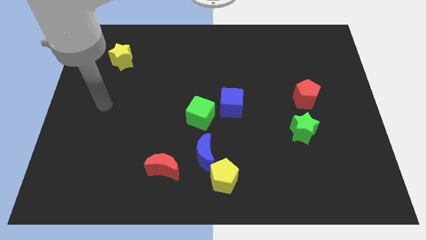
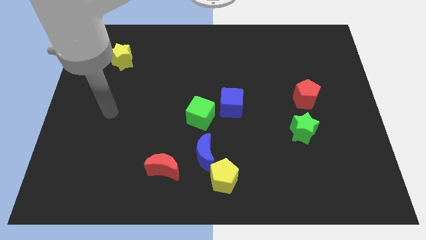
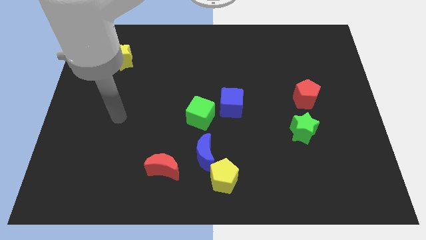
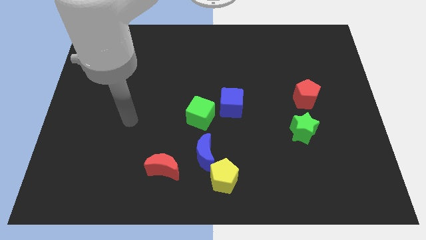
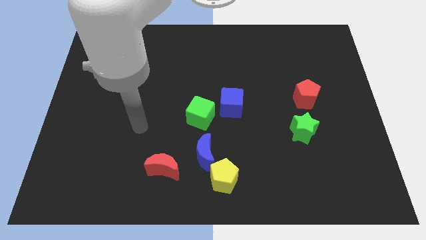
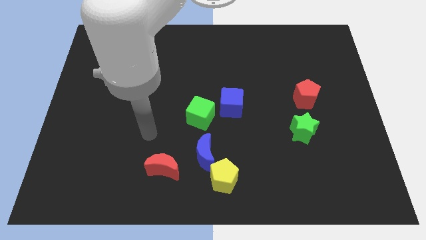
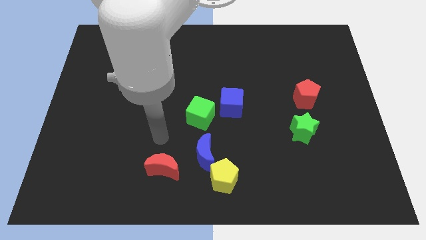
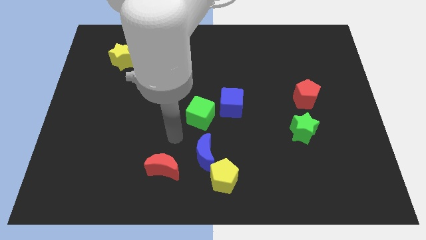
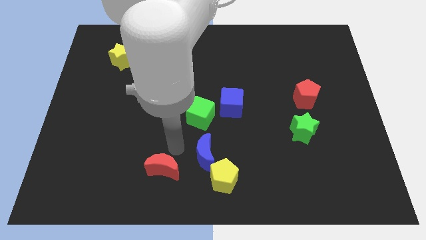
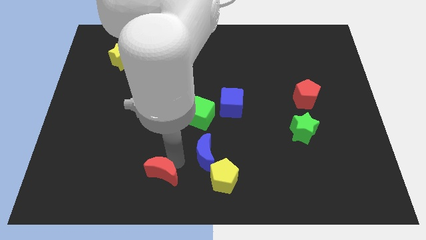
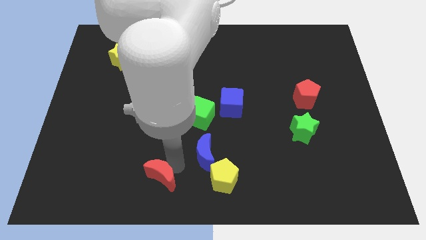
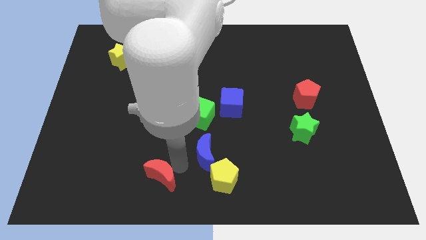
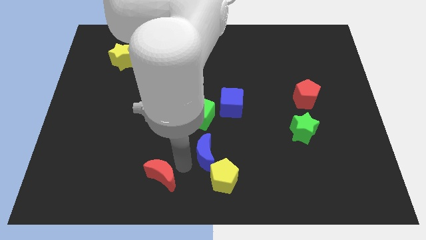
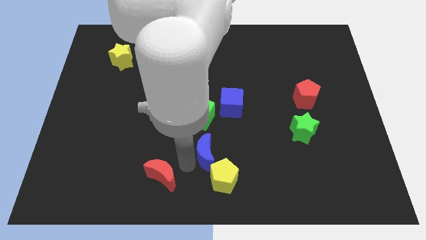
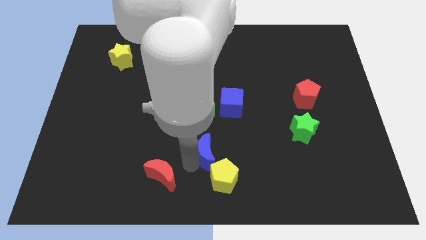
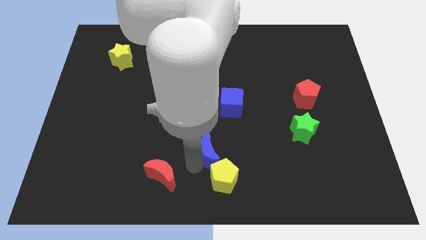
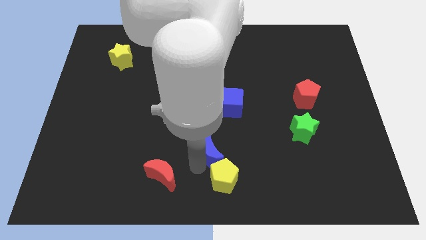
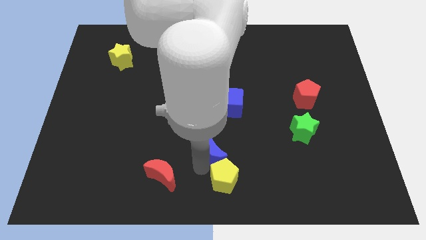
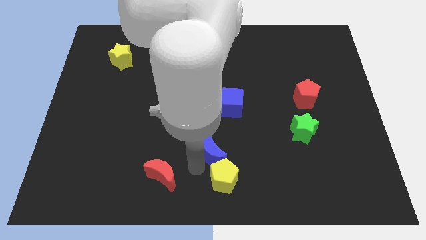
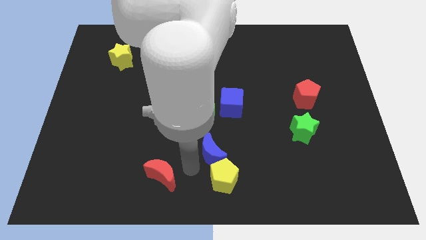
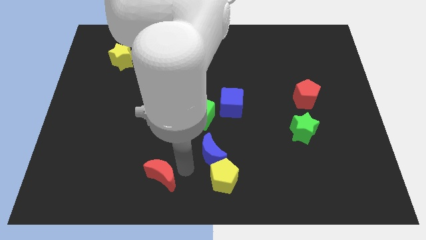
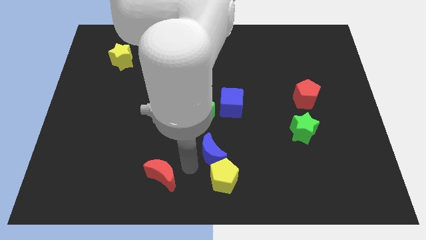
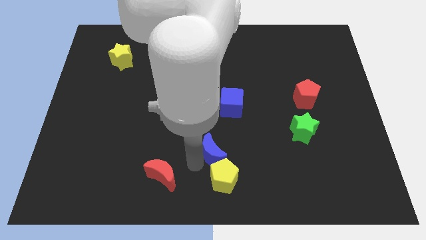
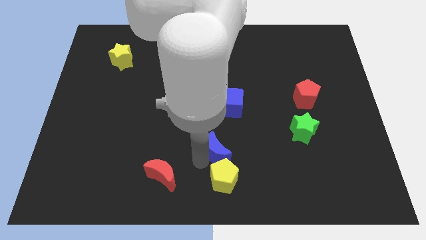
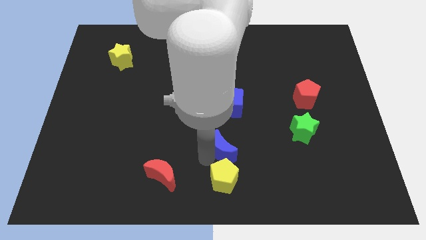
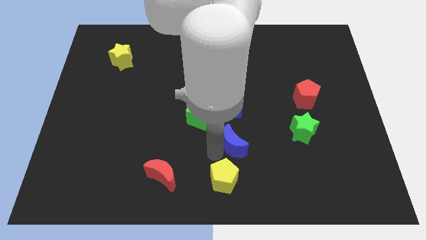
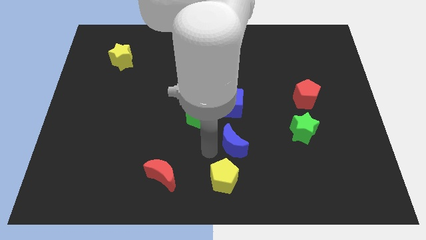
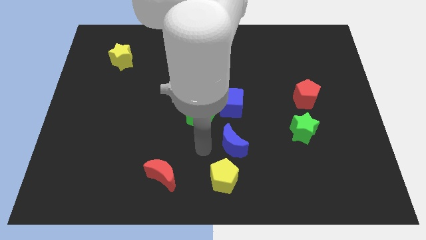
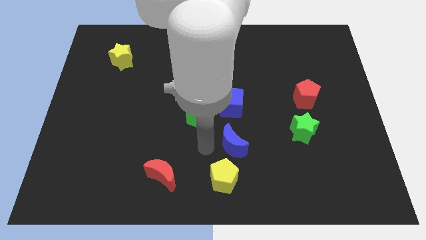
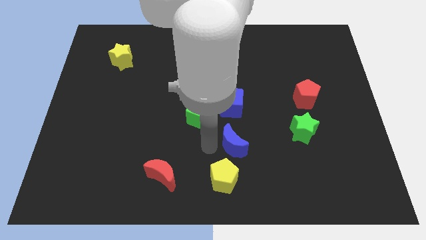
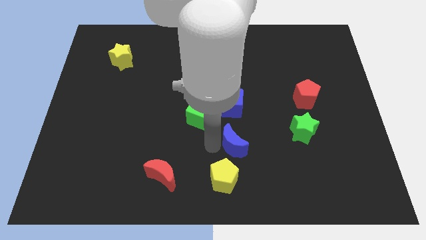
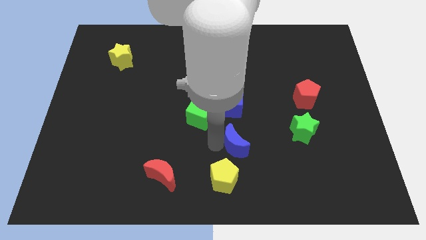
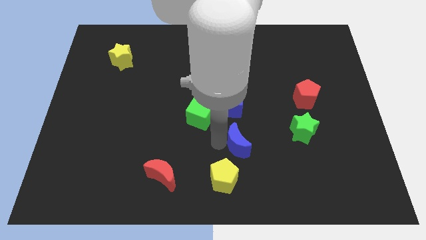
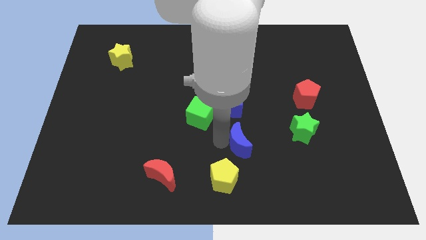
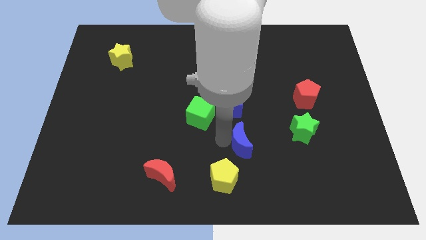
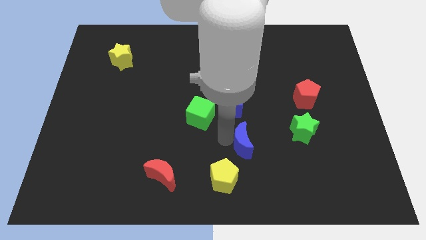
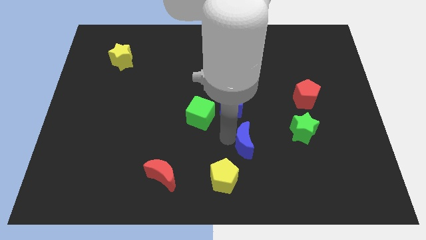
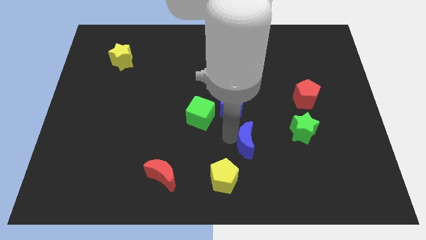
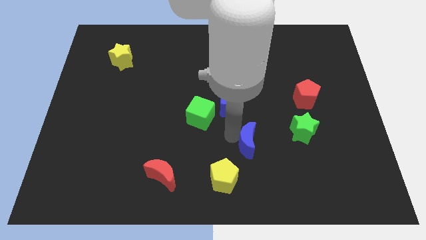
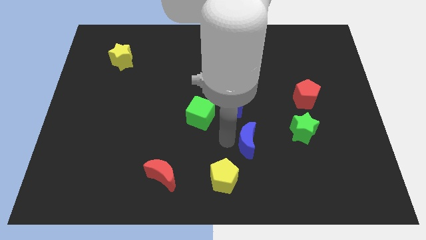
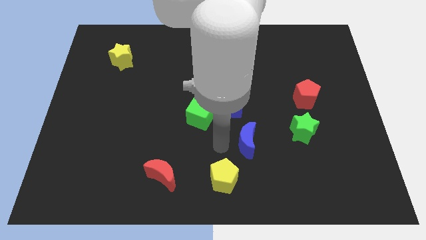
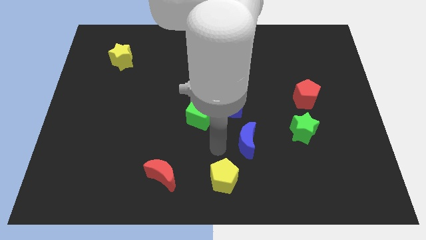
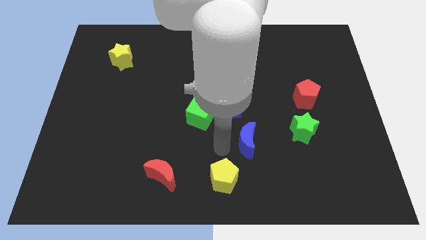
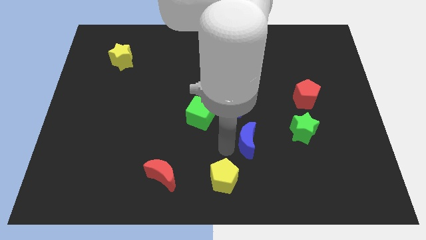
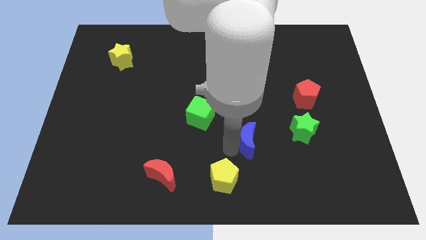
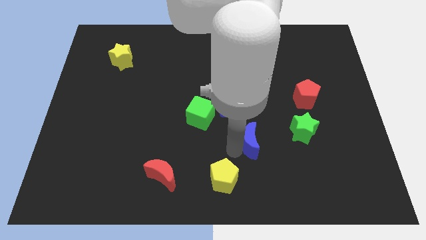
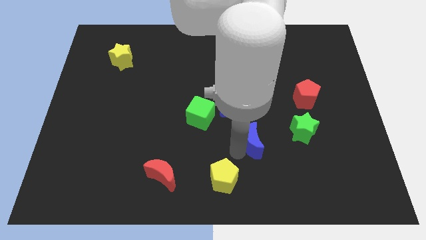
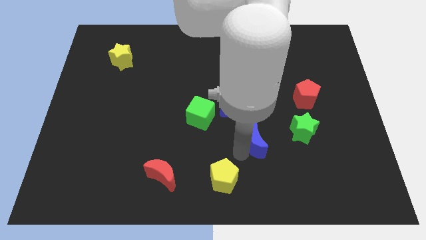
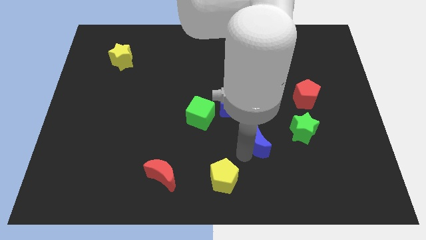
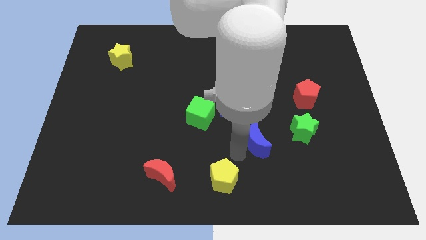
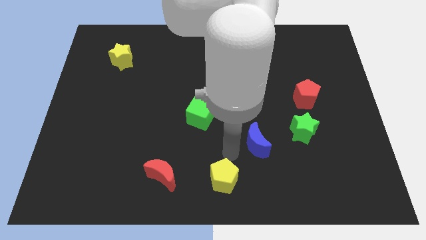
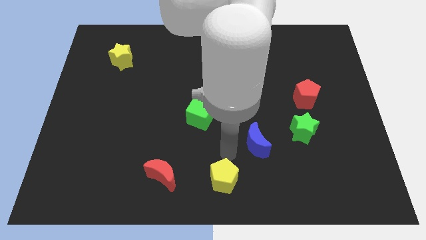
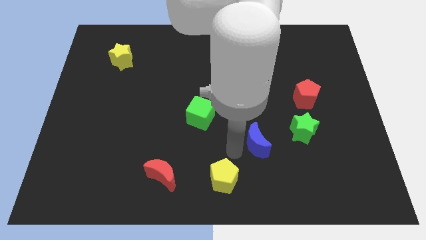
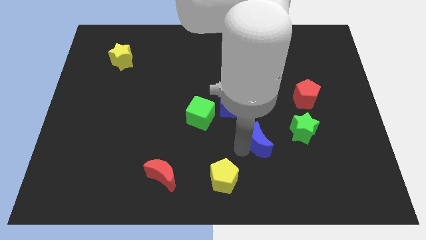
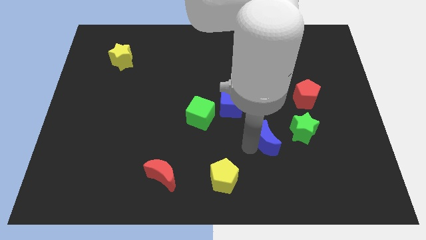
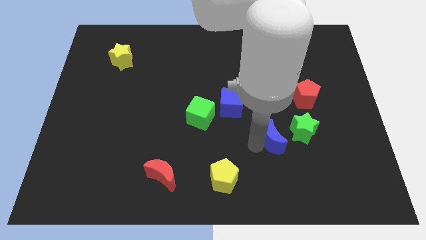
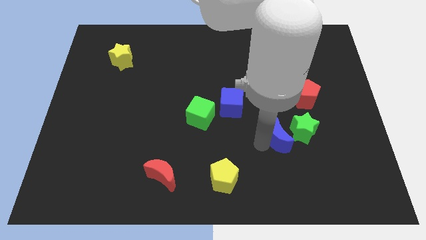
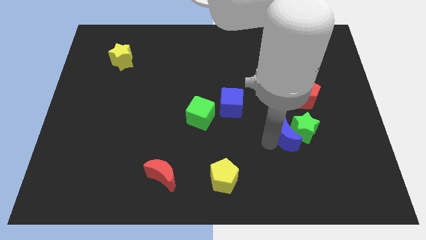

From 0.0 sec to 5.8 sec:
put the blue moon to the green star

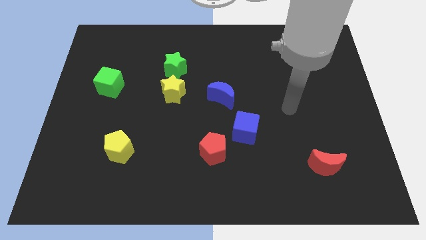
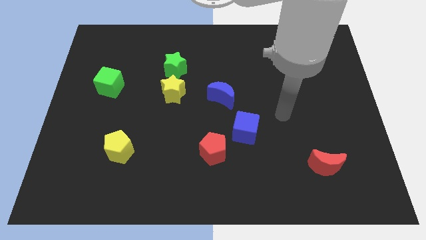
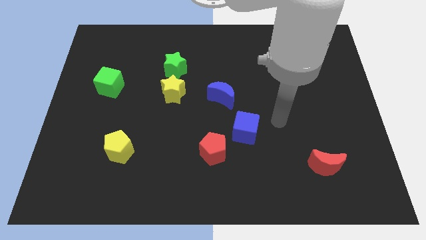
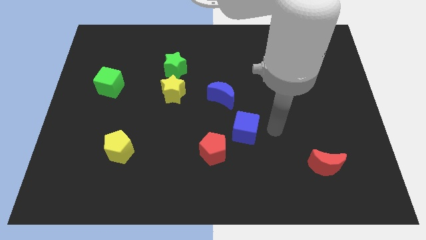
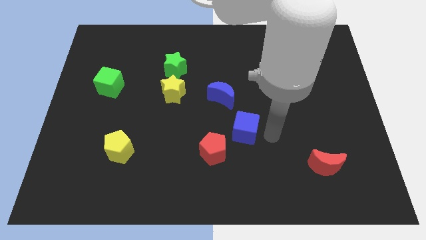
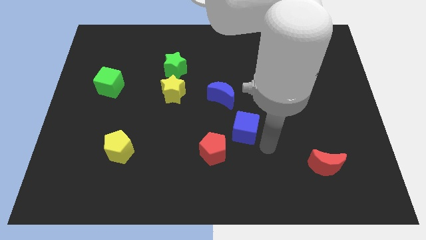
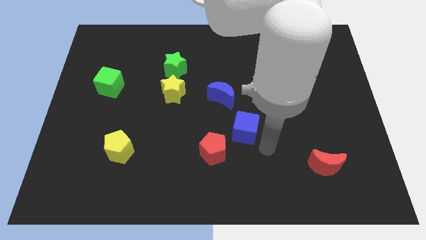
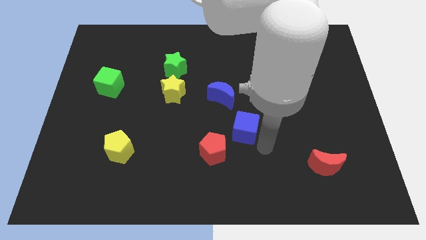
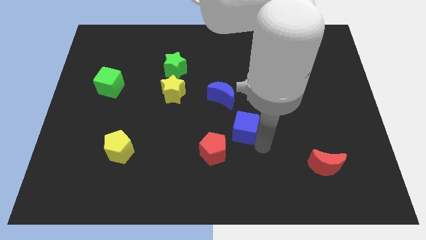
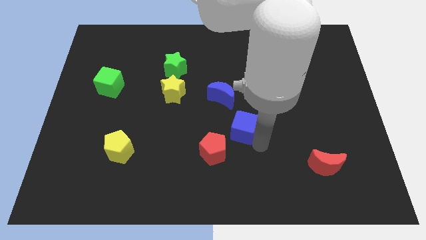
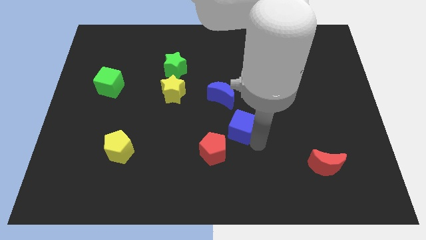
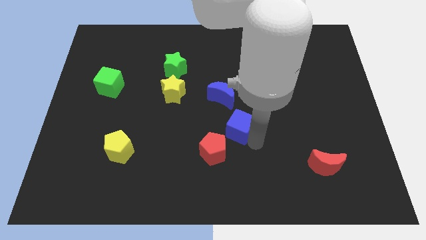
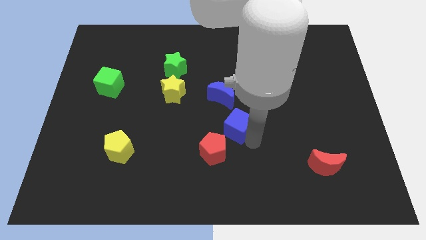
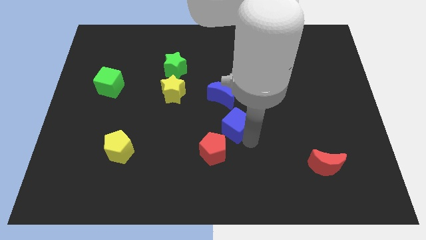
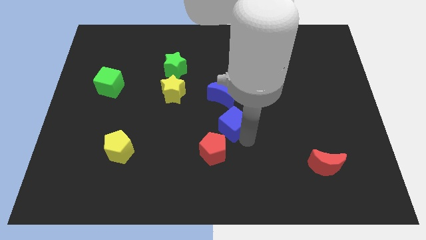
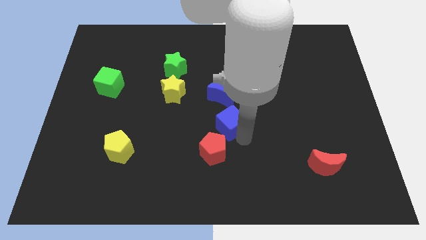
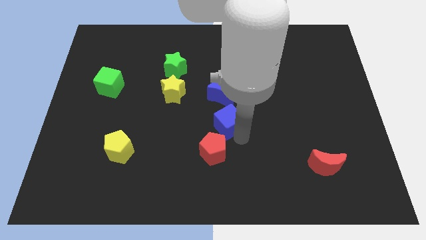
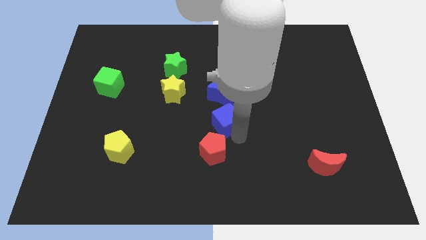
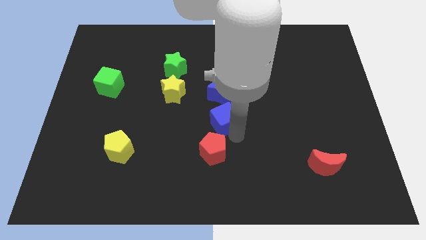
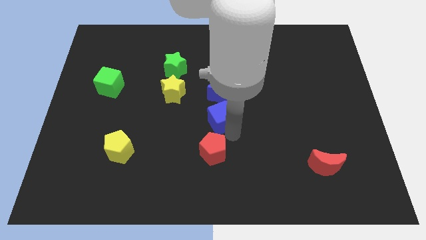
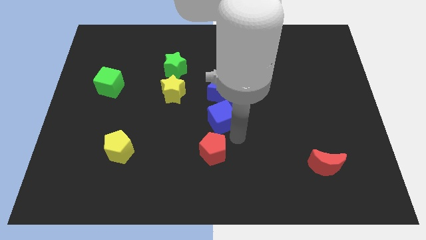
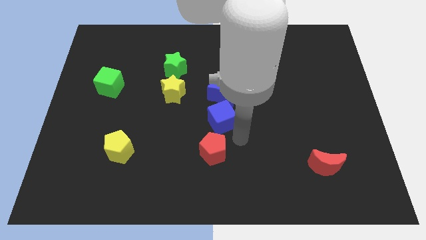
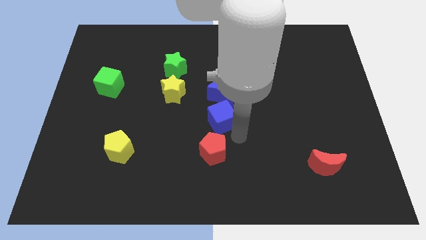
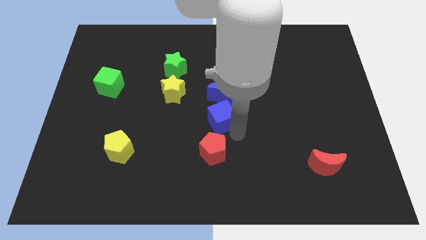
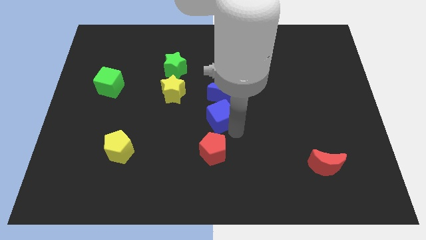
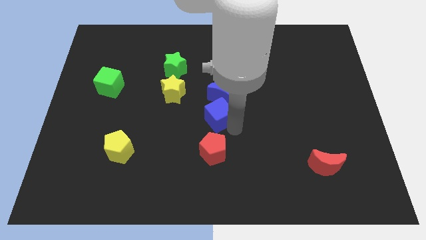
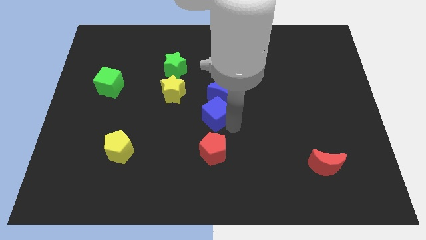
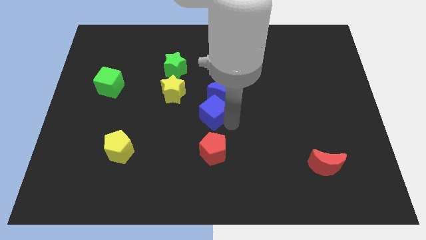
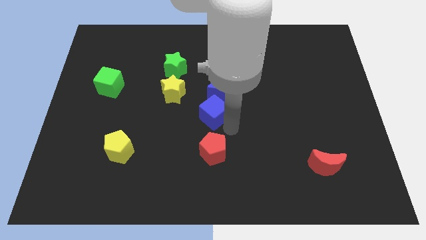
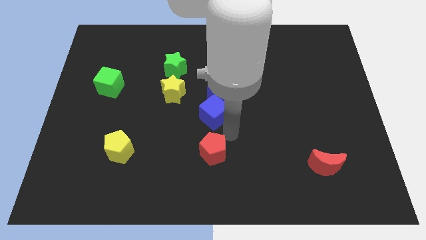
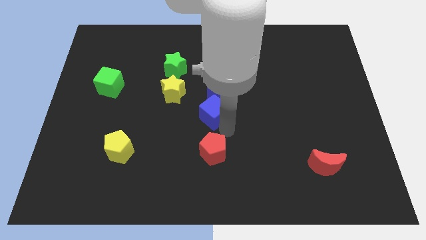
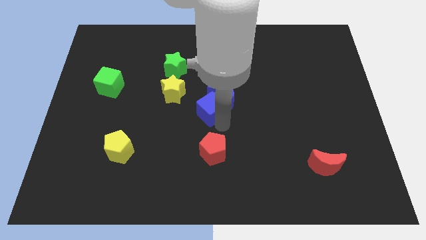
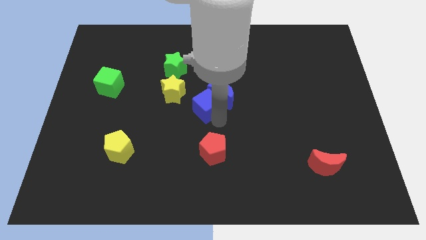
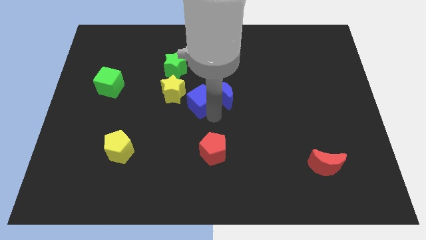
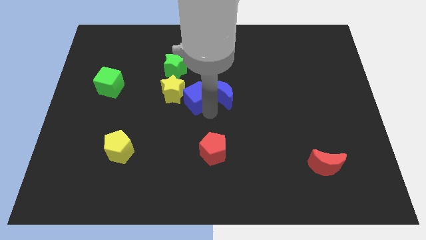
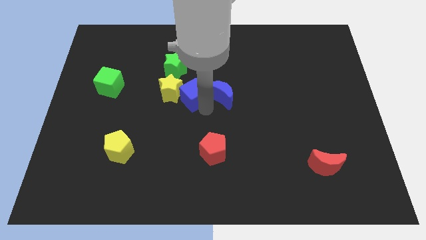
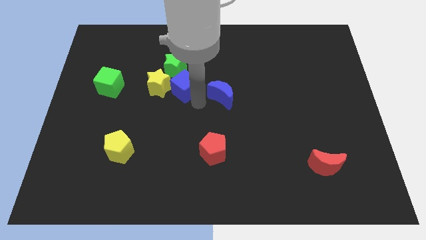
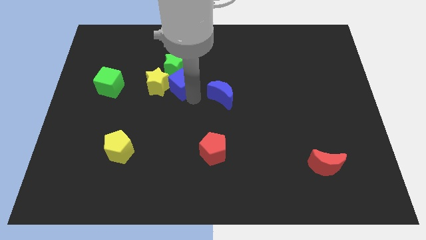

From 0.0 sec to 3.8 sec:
put the blue cube close to the green star
